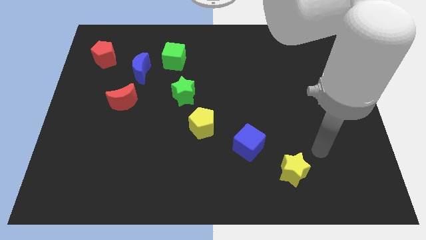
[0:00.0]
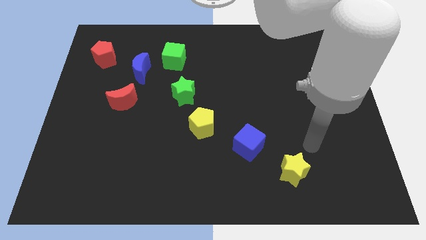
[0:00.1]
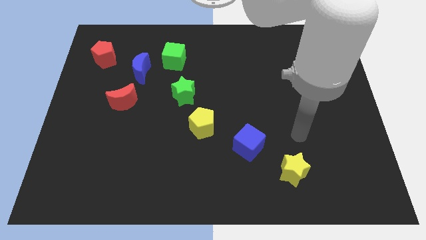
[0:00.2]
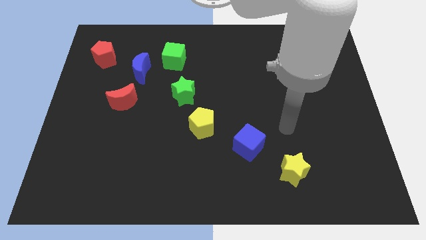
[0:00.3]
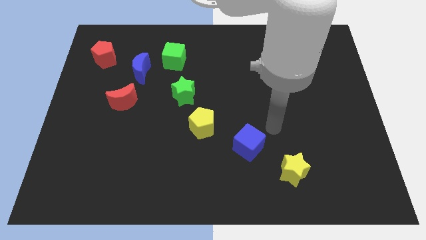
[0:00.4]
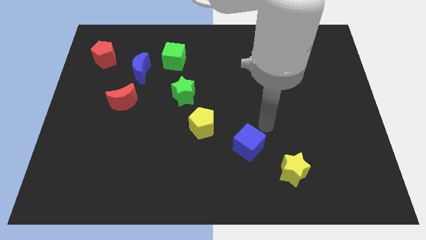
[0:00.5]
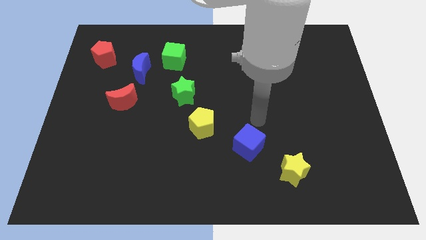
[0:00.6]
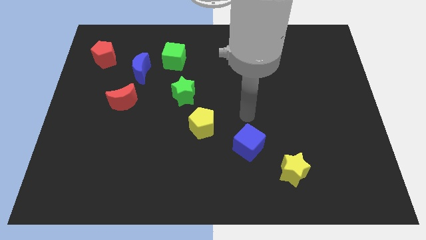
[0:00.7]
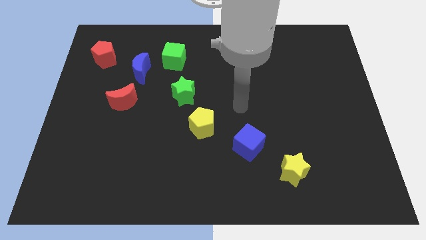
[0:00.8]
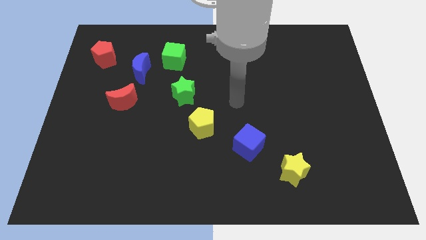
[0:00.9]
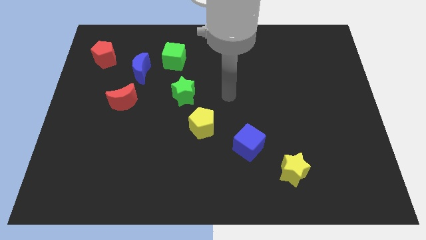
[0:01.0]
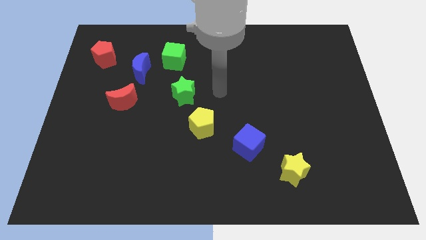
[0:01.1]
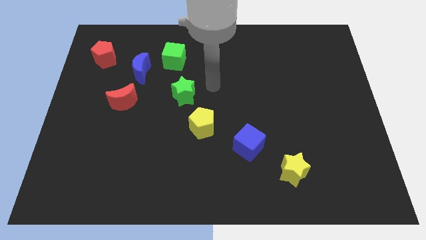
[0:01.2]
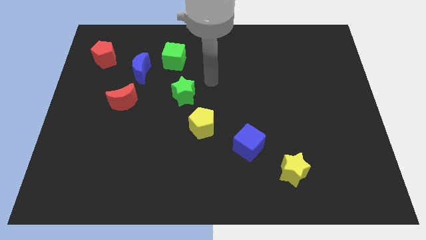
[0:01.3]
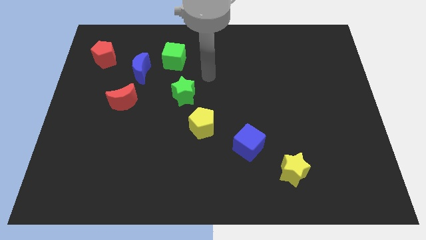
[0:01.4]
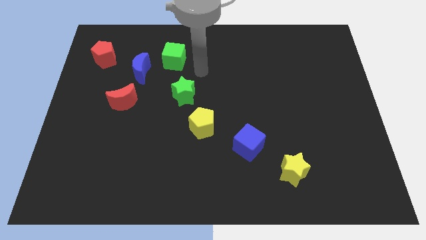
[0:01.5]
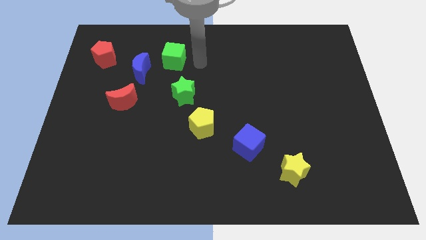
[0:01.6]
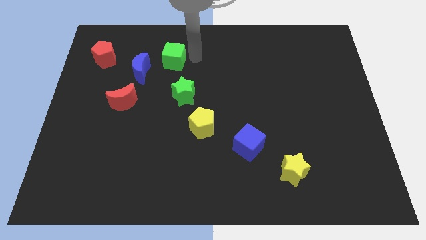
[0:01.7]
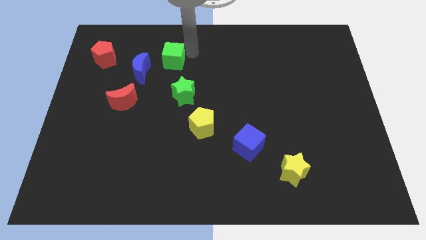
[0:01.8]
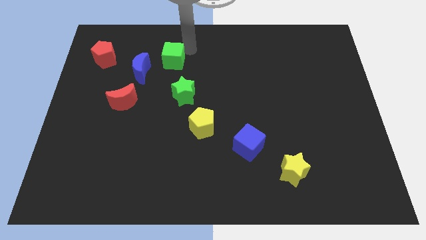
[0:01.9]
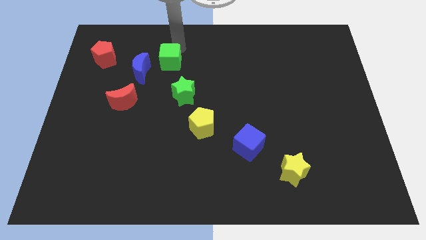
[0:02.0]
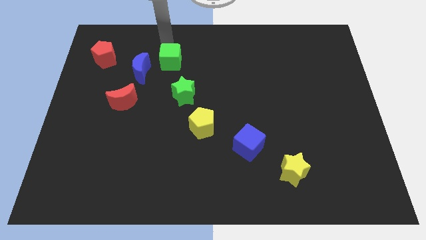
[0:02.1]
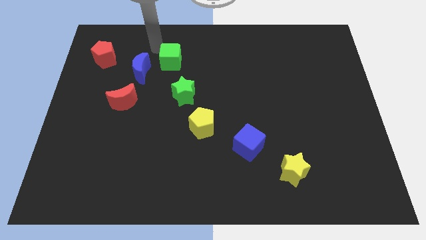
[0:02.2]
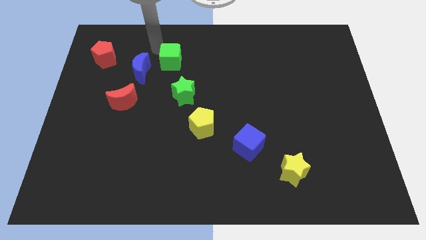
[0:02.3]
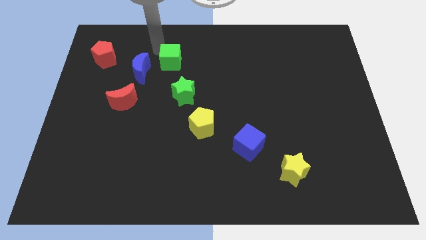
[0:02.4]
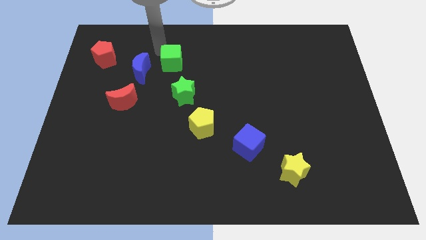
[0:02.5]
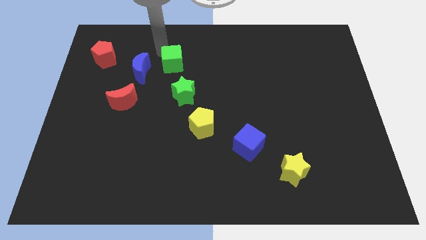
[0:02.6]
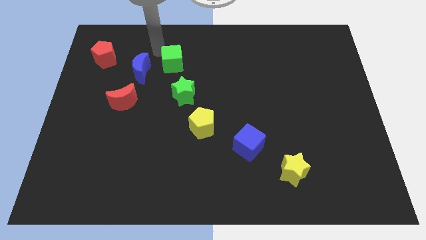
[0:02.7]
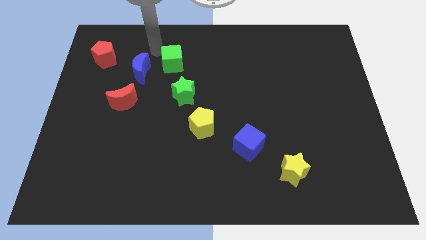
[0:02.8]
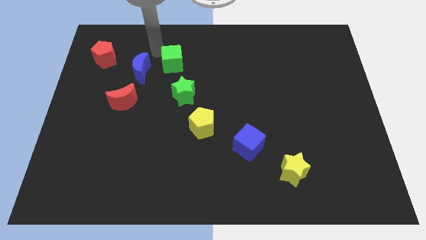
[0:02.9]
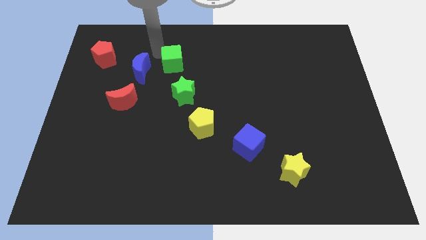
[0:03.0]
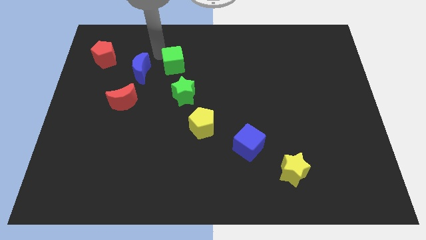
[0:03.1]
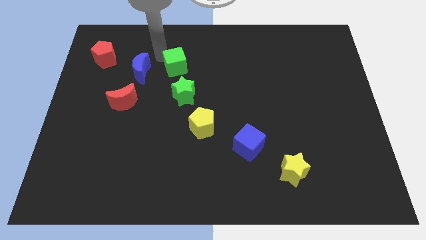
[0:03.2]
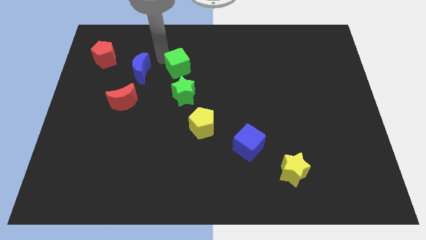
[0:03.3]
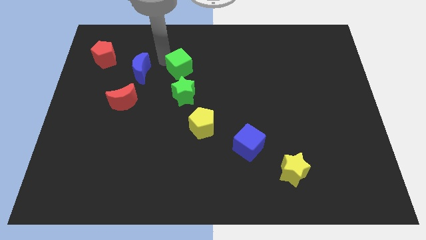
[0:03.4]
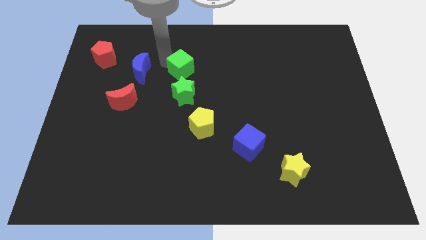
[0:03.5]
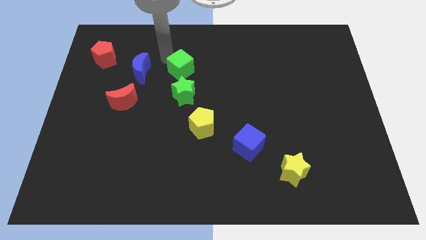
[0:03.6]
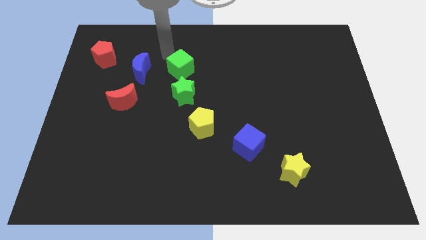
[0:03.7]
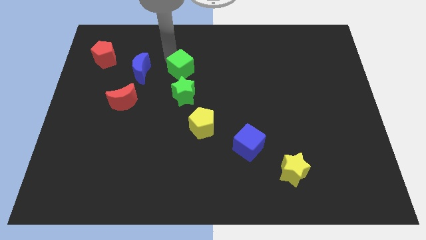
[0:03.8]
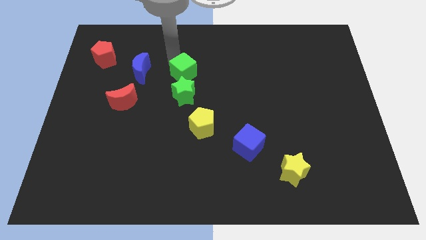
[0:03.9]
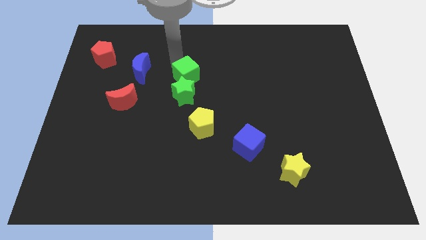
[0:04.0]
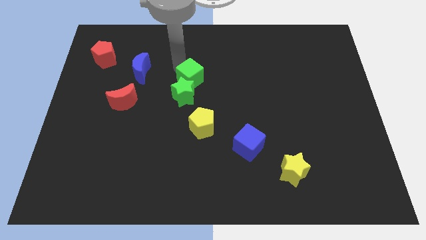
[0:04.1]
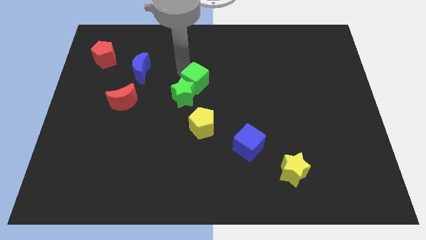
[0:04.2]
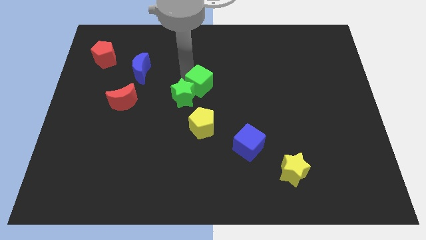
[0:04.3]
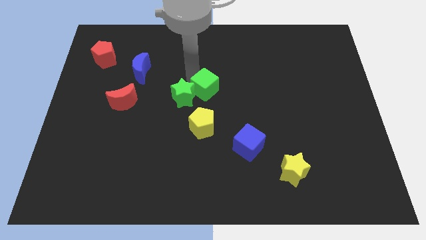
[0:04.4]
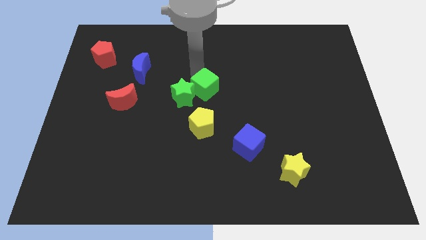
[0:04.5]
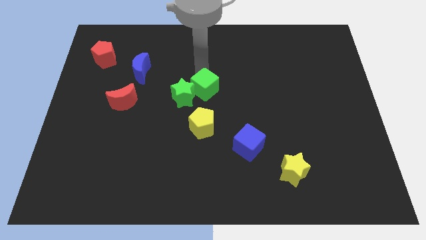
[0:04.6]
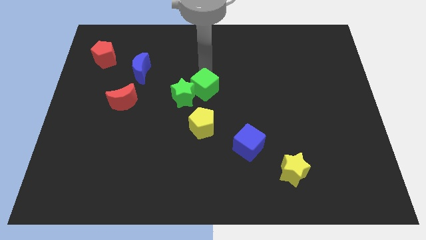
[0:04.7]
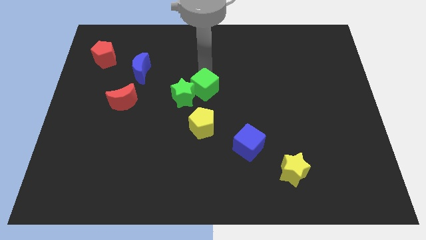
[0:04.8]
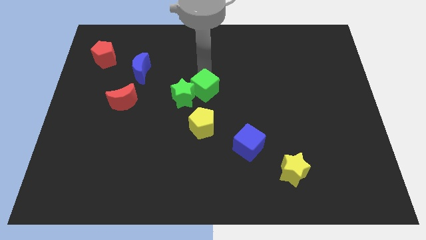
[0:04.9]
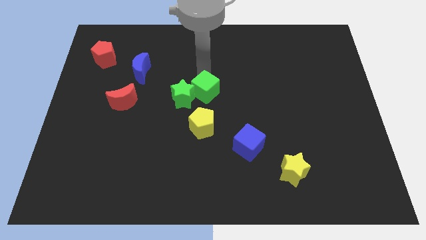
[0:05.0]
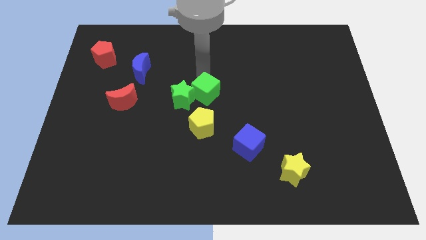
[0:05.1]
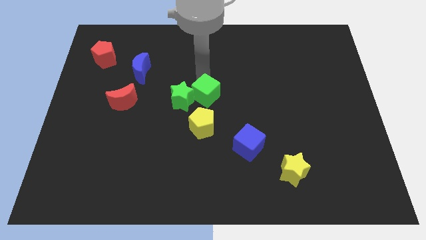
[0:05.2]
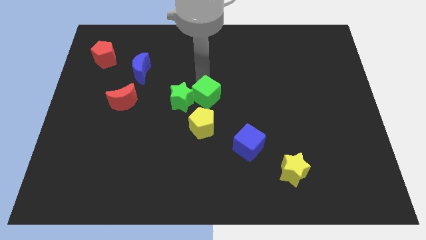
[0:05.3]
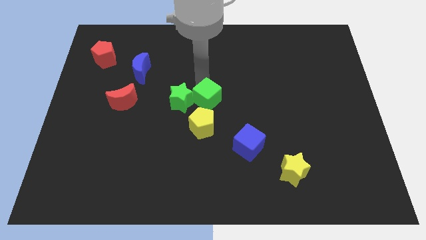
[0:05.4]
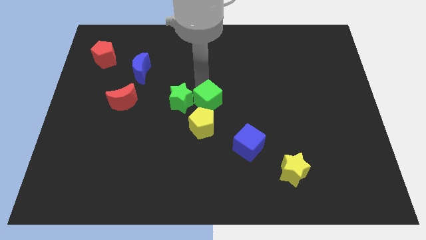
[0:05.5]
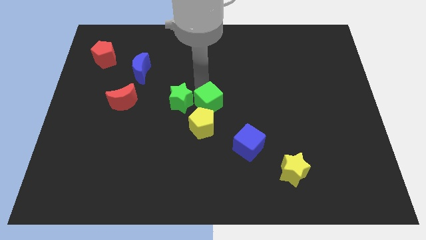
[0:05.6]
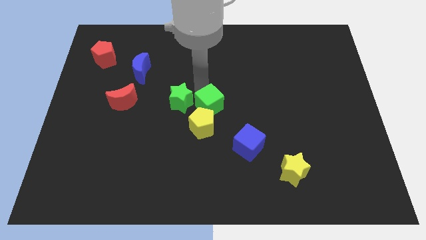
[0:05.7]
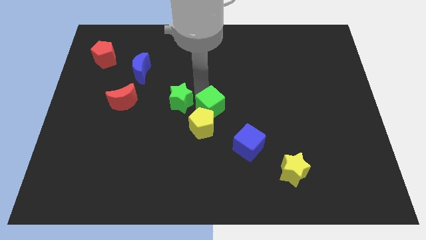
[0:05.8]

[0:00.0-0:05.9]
put the green cube towards the yellow pentagon

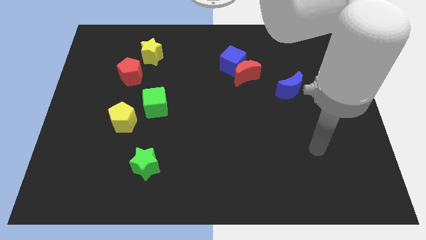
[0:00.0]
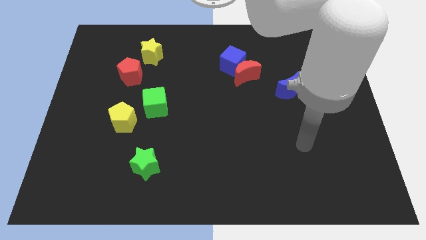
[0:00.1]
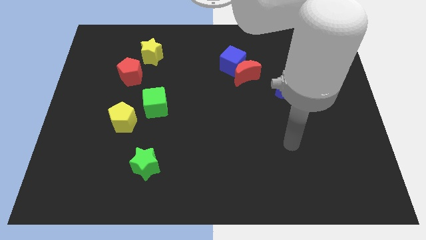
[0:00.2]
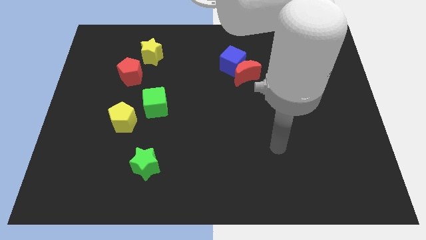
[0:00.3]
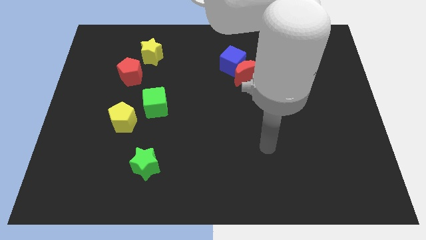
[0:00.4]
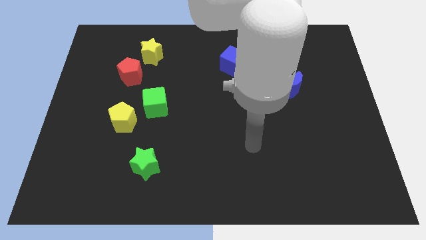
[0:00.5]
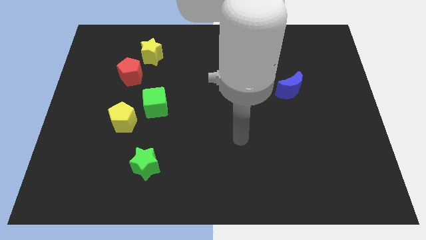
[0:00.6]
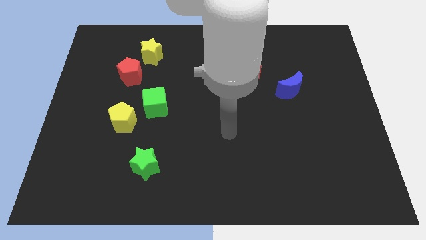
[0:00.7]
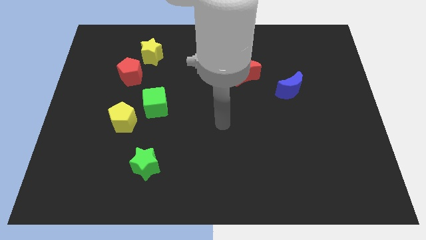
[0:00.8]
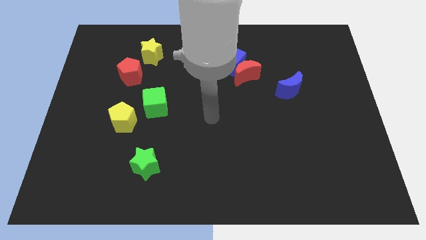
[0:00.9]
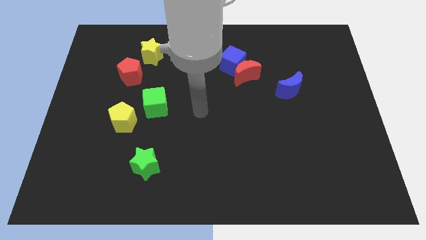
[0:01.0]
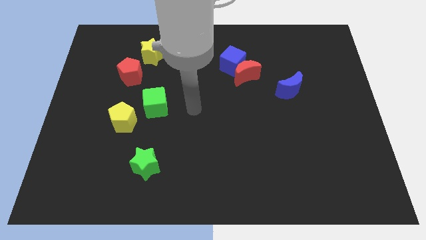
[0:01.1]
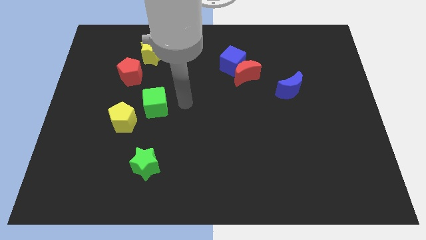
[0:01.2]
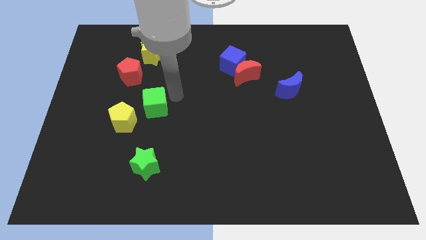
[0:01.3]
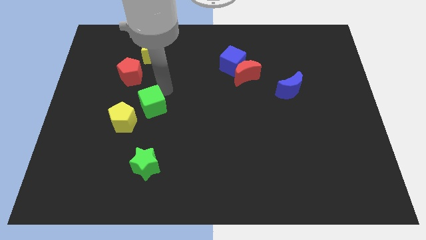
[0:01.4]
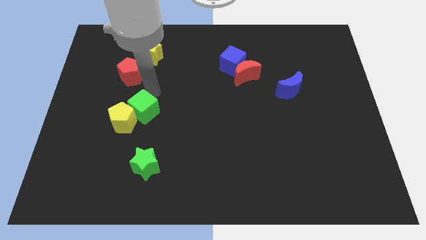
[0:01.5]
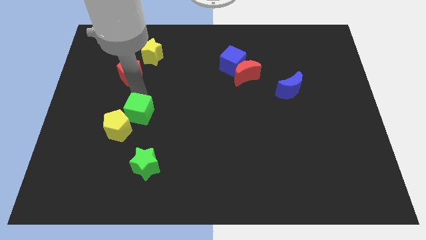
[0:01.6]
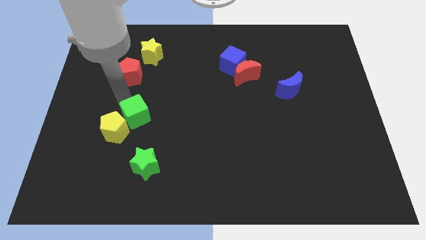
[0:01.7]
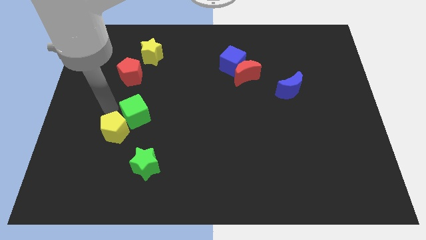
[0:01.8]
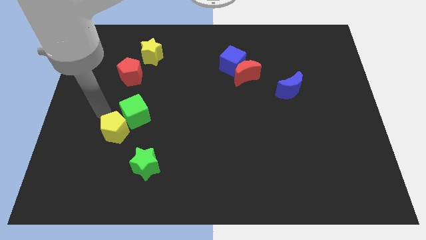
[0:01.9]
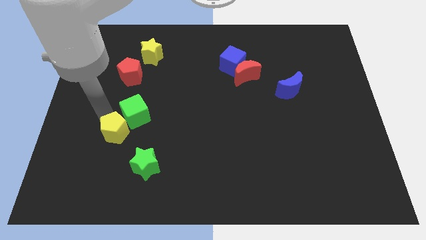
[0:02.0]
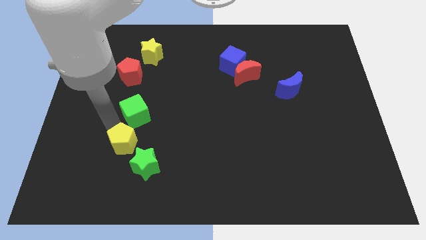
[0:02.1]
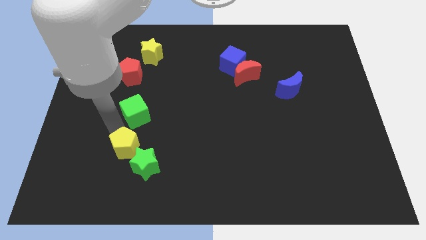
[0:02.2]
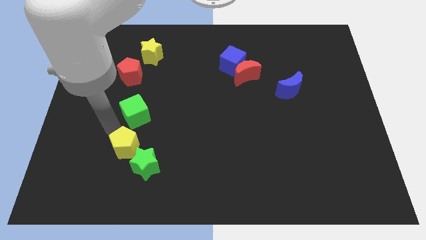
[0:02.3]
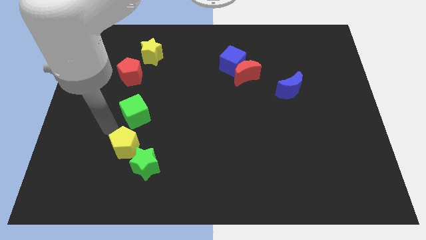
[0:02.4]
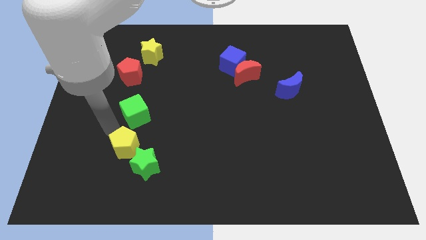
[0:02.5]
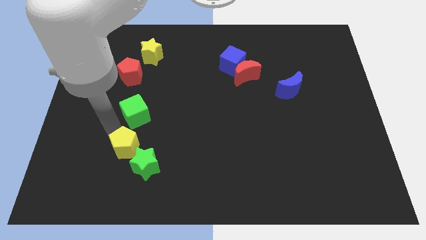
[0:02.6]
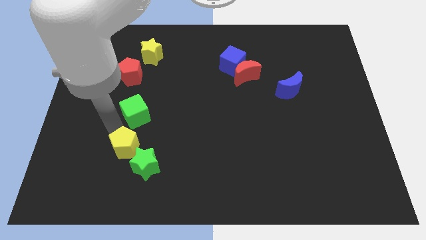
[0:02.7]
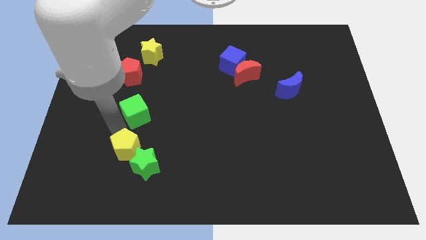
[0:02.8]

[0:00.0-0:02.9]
push the yellow pentagon towards the green star
